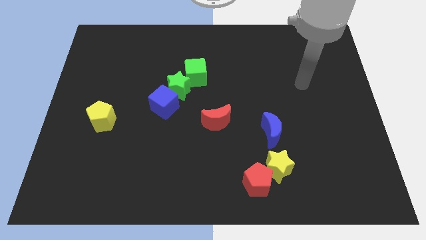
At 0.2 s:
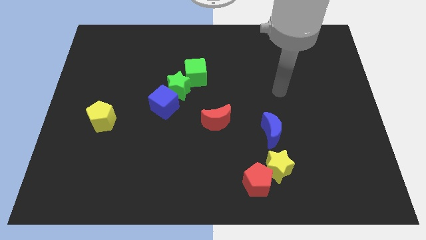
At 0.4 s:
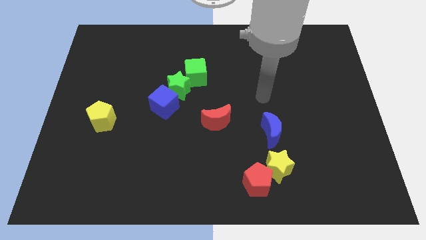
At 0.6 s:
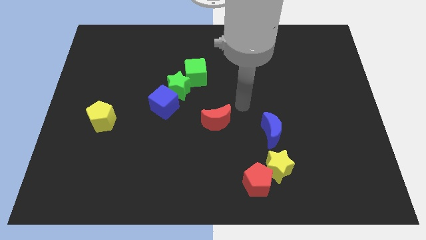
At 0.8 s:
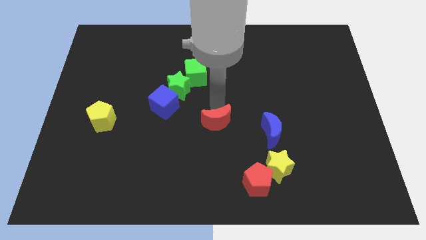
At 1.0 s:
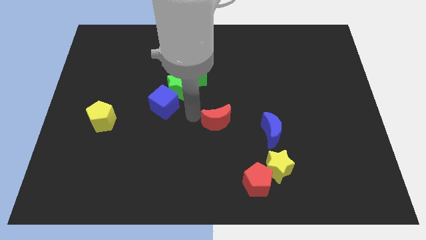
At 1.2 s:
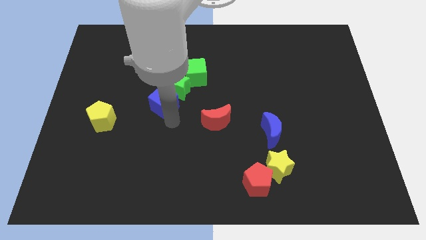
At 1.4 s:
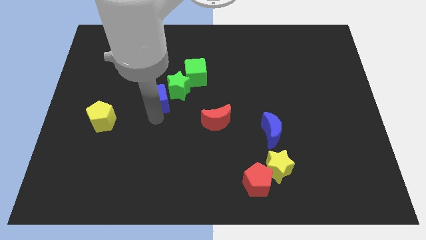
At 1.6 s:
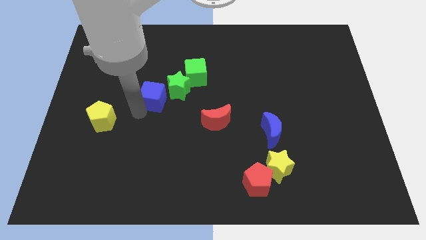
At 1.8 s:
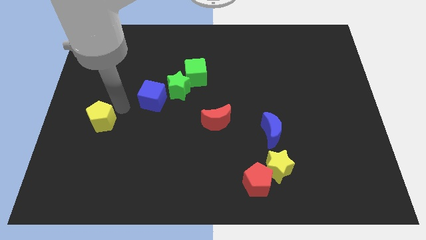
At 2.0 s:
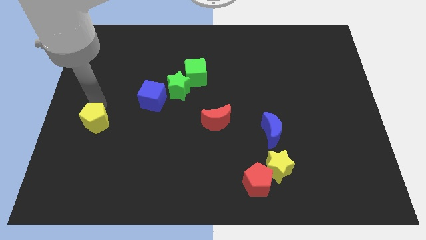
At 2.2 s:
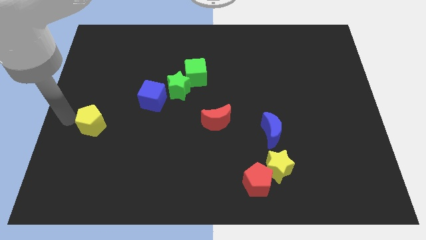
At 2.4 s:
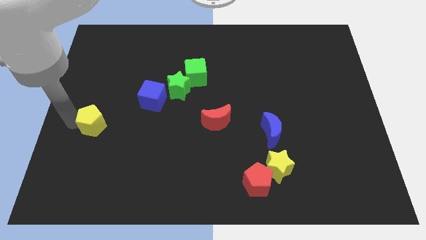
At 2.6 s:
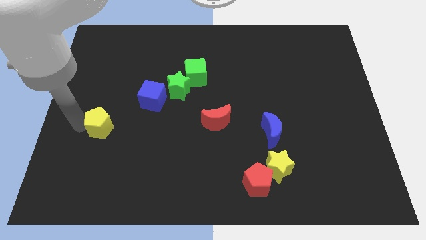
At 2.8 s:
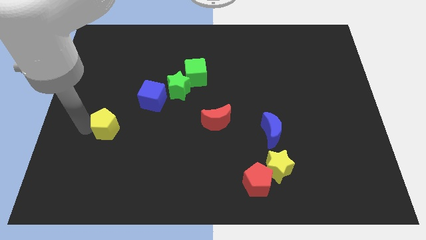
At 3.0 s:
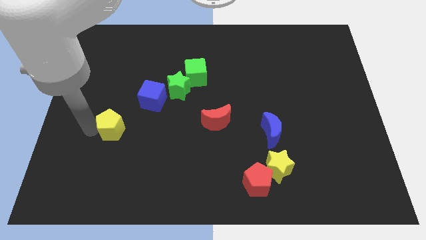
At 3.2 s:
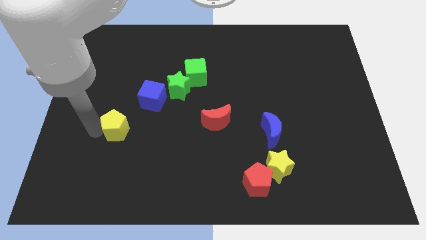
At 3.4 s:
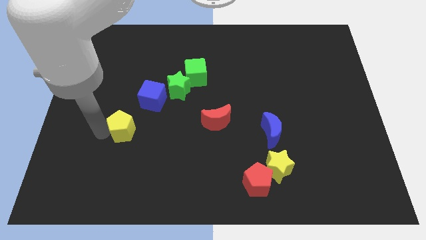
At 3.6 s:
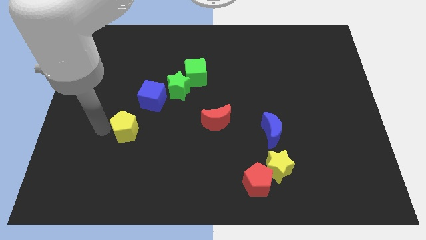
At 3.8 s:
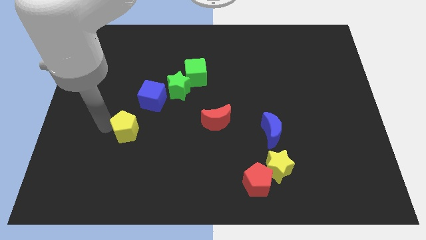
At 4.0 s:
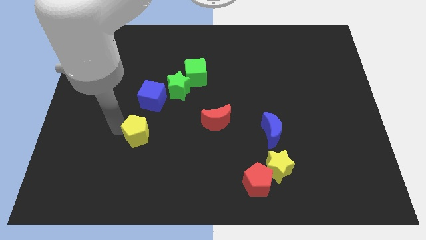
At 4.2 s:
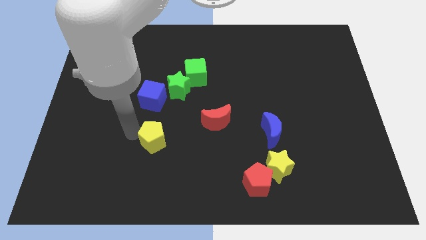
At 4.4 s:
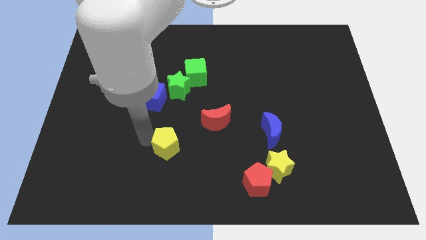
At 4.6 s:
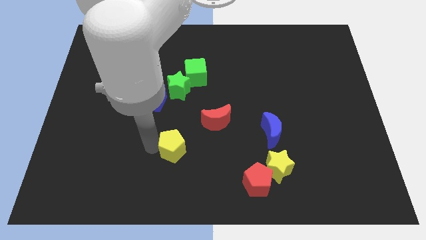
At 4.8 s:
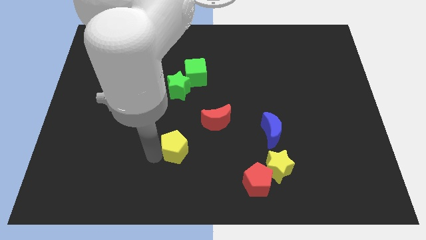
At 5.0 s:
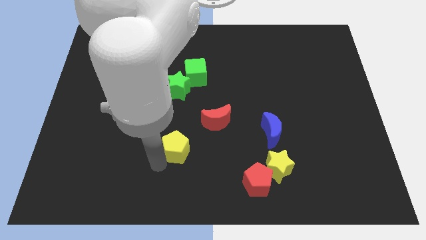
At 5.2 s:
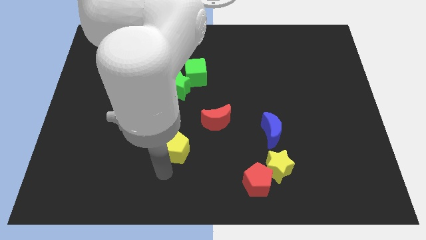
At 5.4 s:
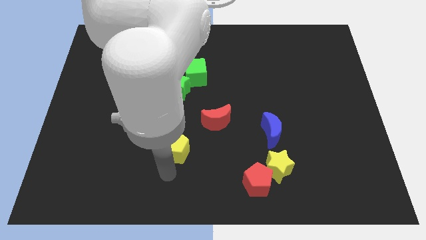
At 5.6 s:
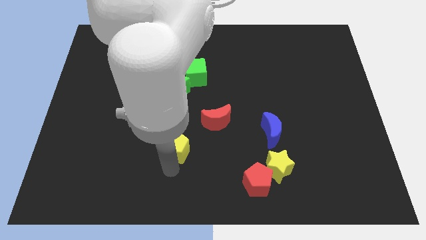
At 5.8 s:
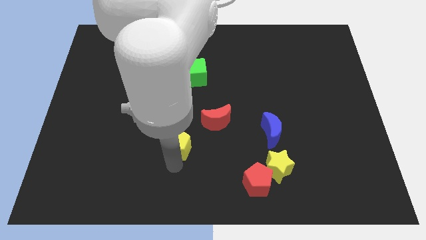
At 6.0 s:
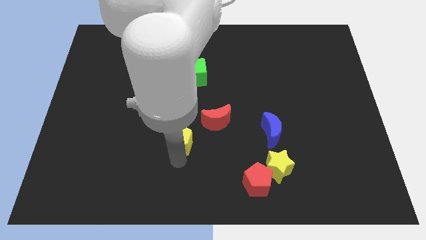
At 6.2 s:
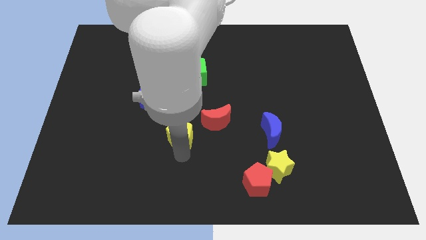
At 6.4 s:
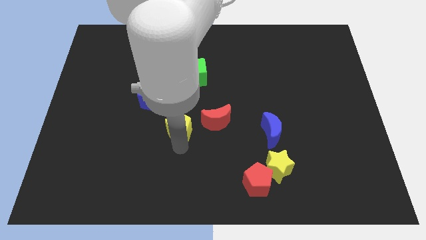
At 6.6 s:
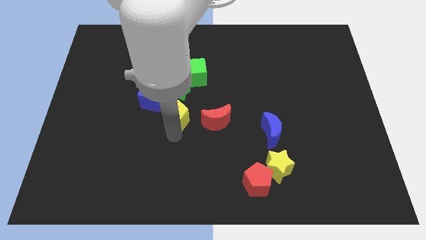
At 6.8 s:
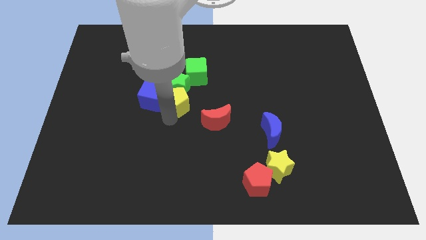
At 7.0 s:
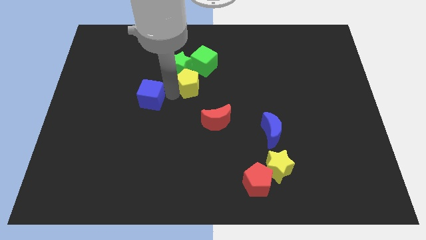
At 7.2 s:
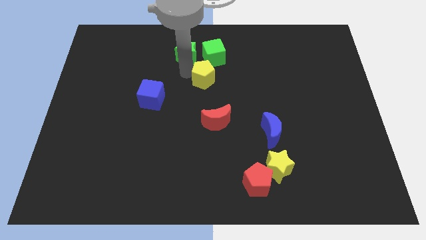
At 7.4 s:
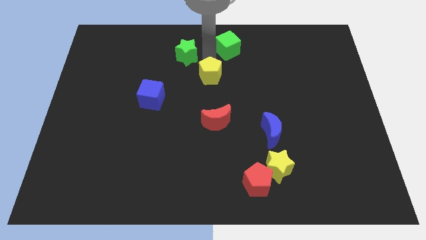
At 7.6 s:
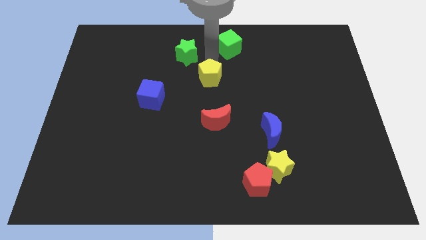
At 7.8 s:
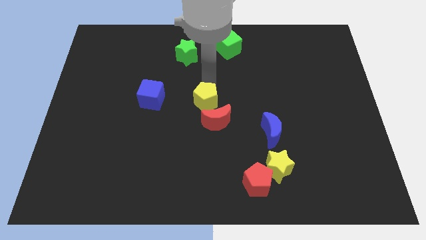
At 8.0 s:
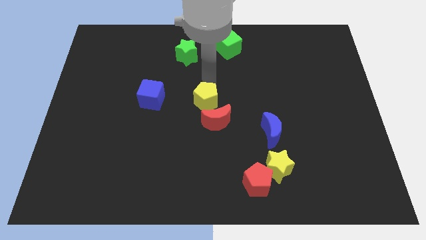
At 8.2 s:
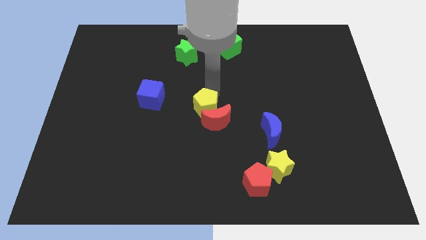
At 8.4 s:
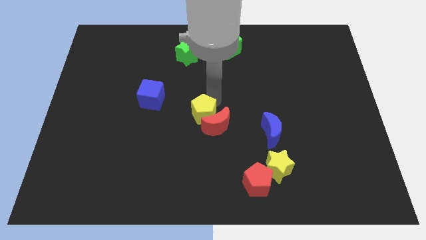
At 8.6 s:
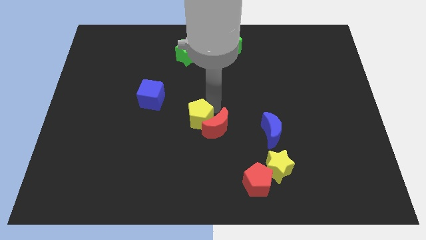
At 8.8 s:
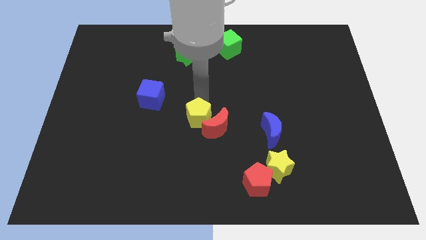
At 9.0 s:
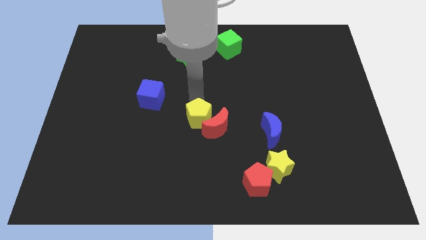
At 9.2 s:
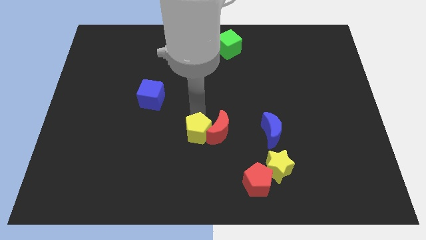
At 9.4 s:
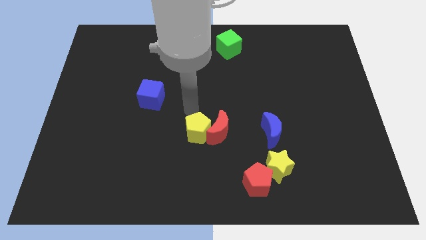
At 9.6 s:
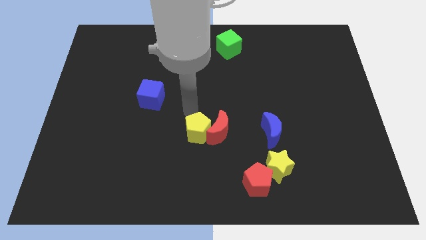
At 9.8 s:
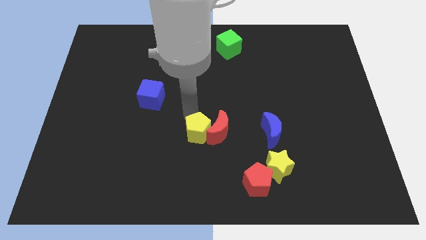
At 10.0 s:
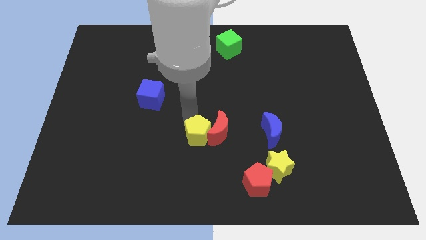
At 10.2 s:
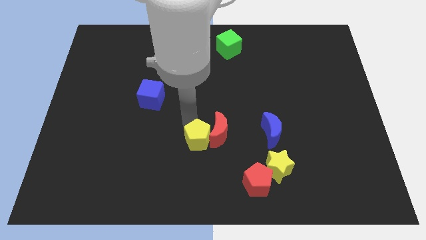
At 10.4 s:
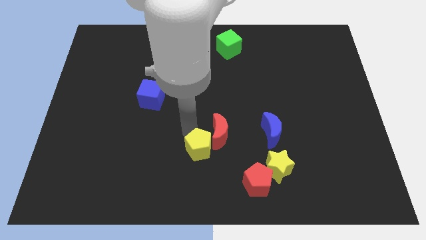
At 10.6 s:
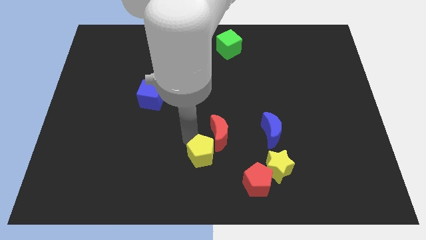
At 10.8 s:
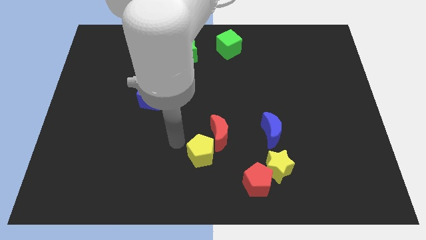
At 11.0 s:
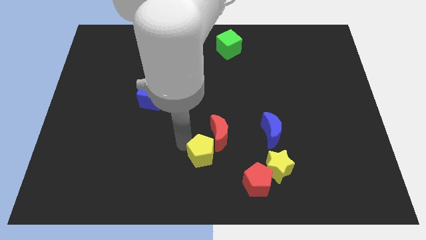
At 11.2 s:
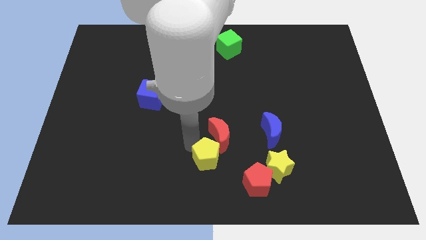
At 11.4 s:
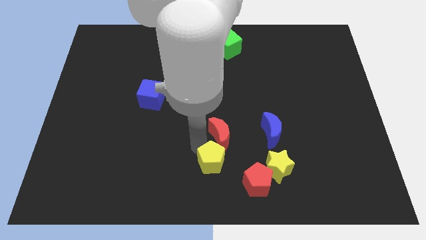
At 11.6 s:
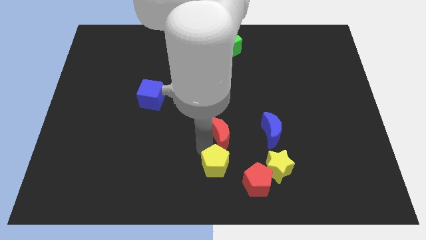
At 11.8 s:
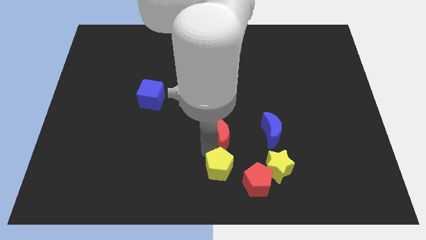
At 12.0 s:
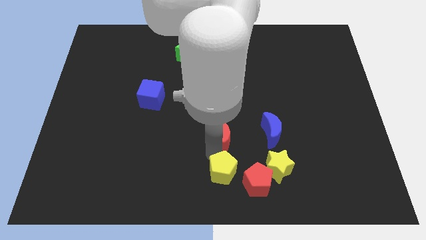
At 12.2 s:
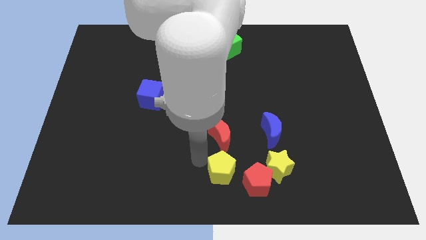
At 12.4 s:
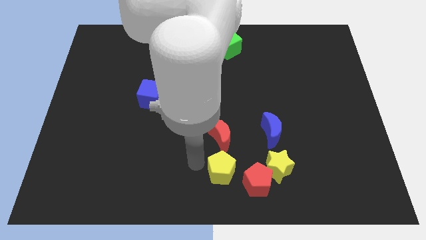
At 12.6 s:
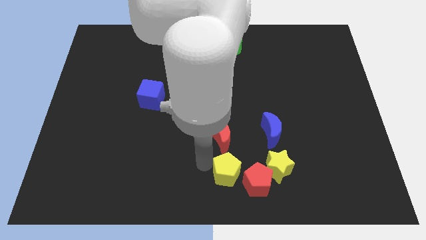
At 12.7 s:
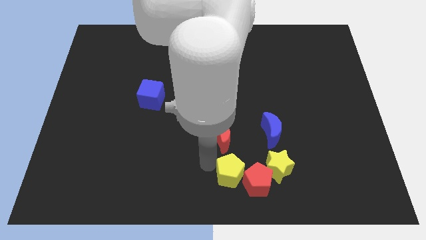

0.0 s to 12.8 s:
move the yellow pentagon to the red pentagon

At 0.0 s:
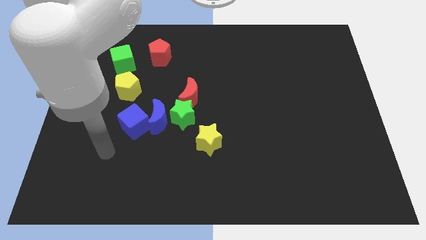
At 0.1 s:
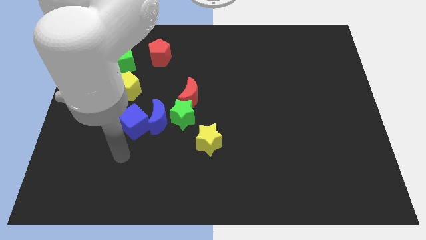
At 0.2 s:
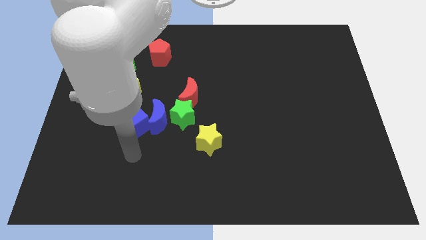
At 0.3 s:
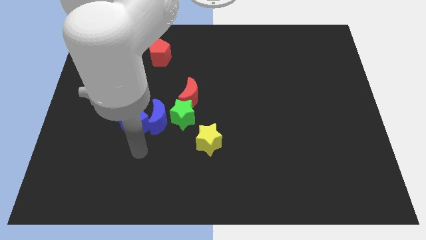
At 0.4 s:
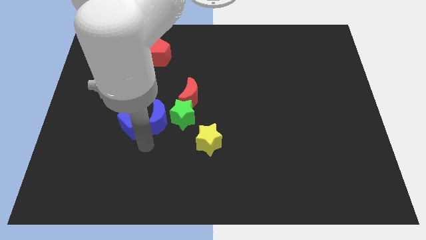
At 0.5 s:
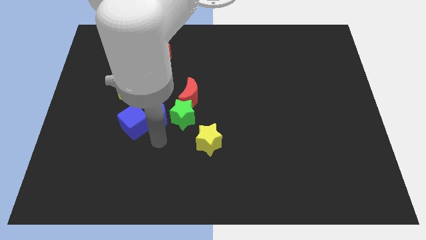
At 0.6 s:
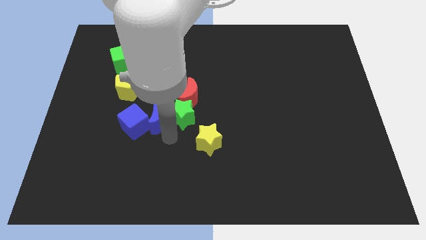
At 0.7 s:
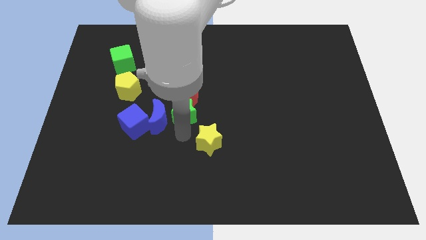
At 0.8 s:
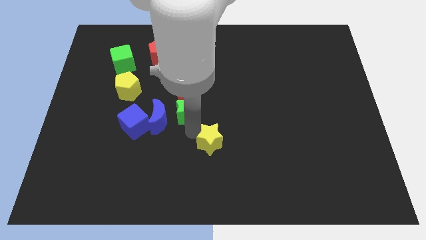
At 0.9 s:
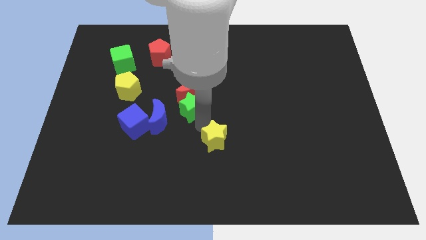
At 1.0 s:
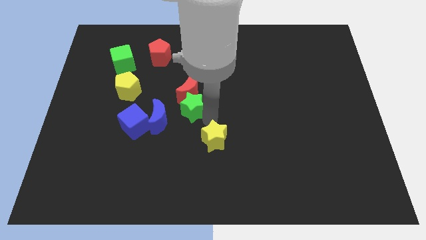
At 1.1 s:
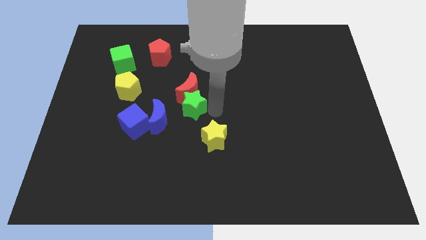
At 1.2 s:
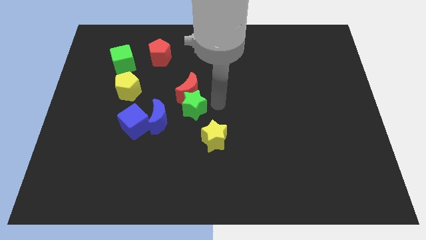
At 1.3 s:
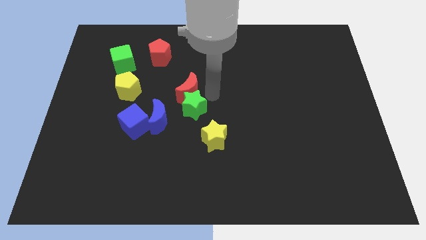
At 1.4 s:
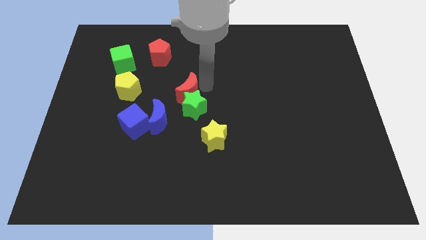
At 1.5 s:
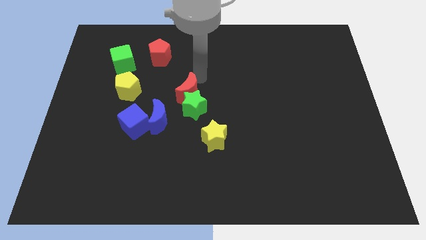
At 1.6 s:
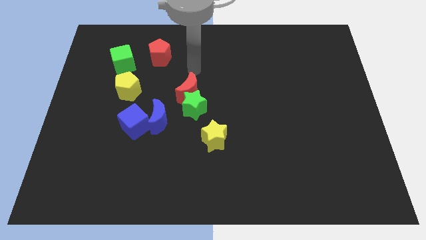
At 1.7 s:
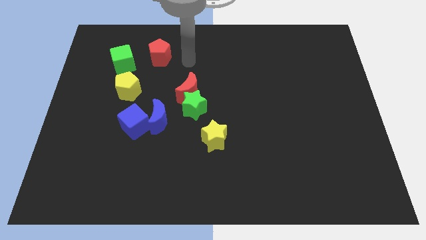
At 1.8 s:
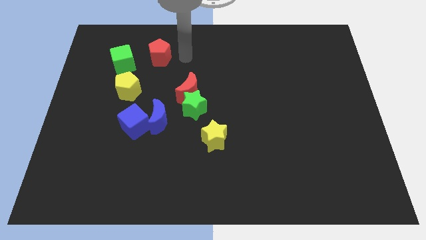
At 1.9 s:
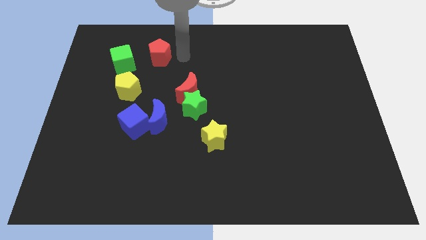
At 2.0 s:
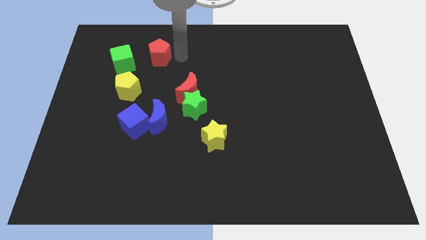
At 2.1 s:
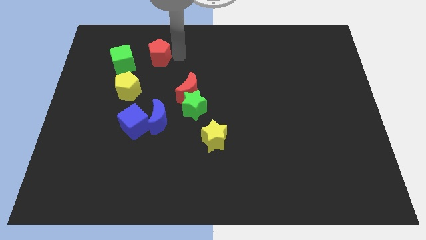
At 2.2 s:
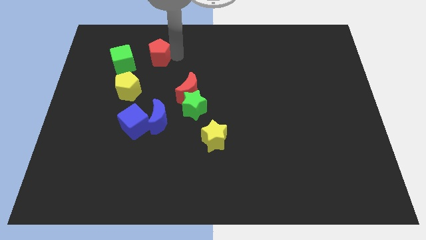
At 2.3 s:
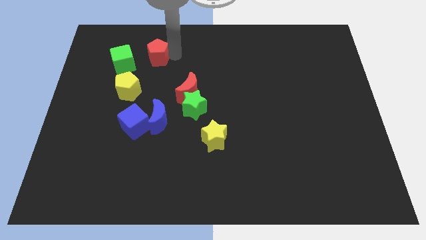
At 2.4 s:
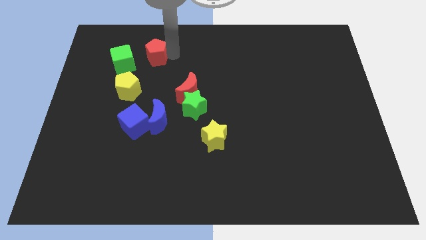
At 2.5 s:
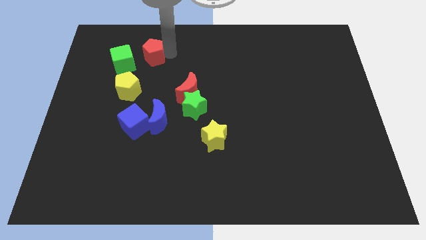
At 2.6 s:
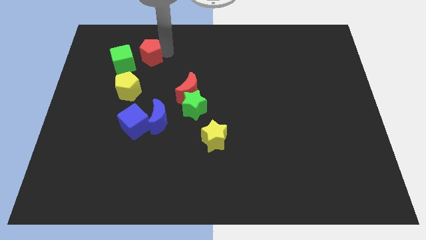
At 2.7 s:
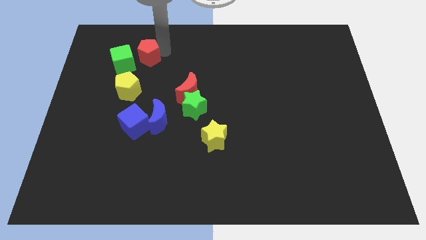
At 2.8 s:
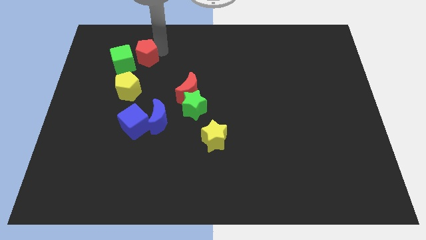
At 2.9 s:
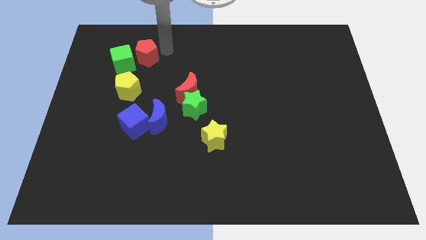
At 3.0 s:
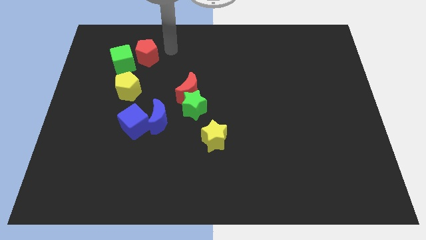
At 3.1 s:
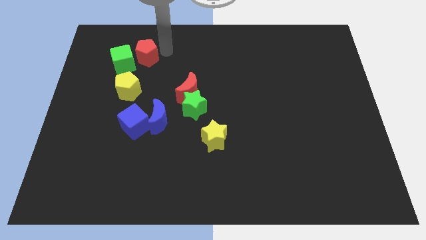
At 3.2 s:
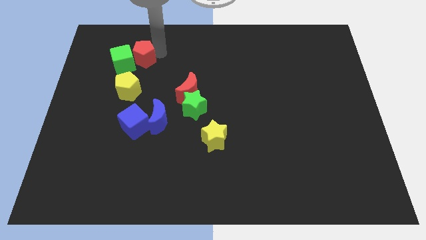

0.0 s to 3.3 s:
move the red pentagon to the green cube
